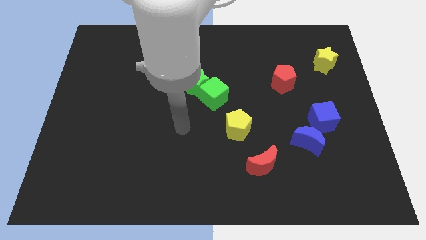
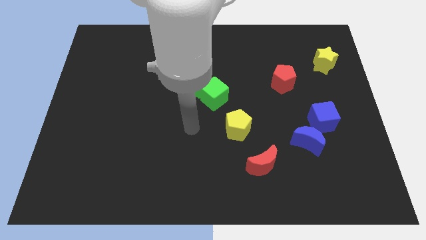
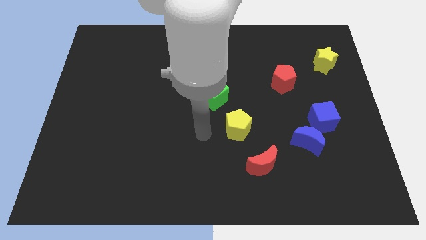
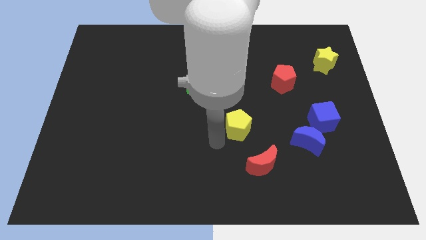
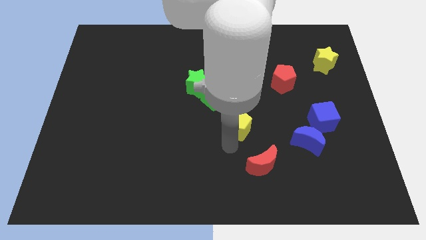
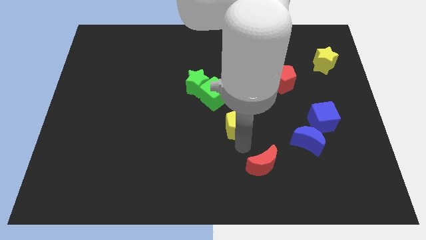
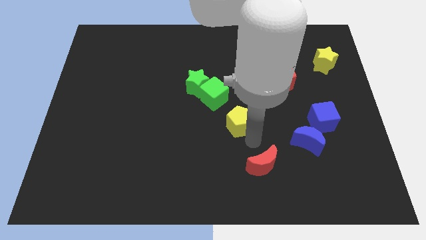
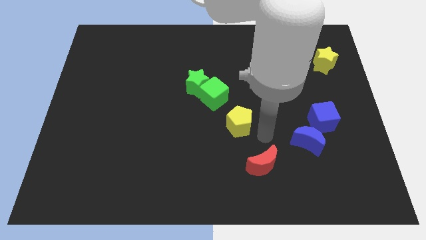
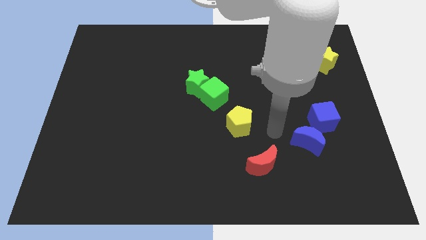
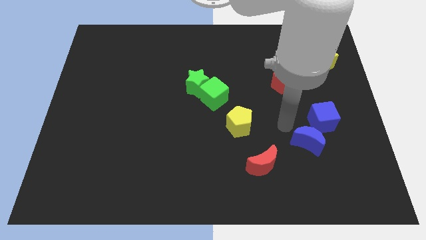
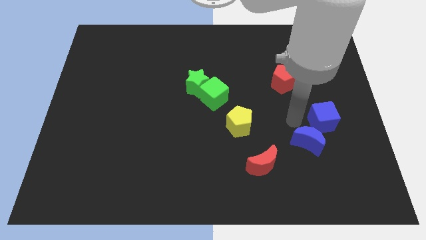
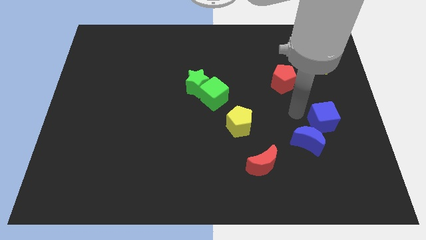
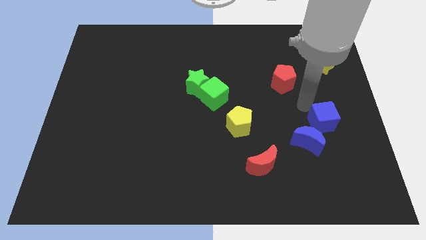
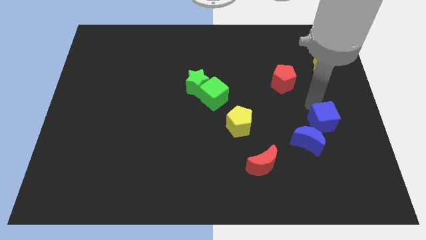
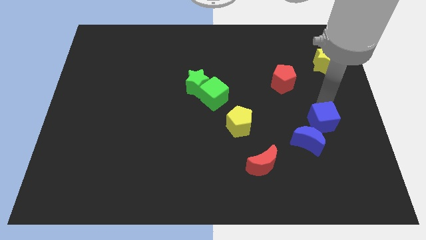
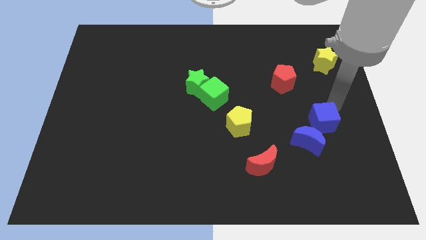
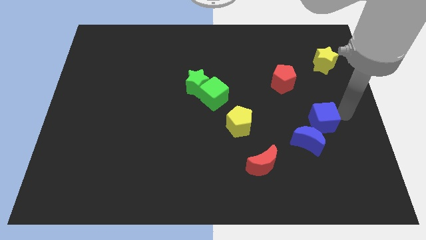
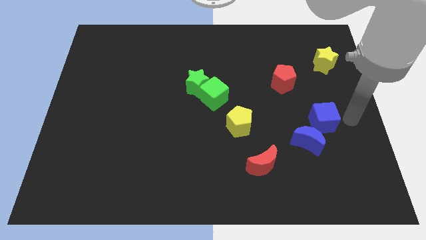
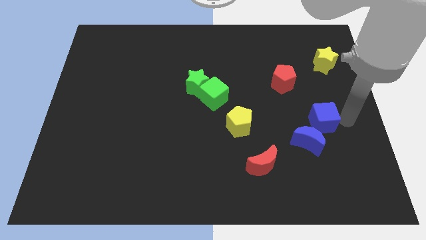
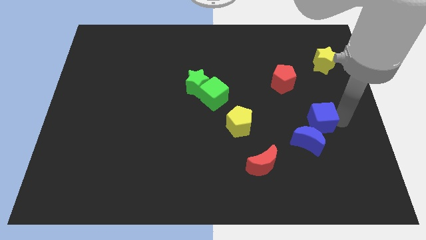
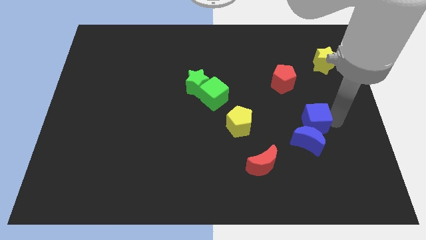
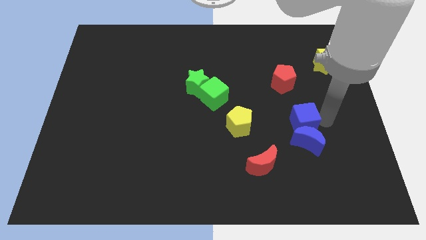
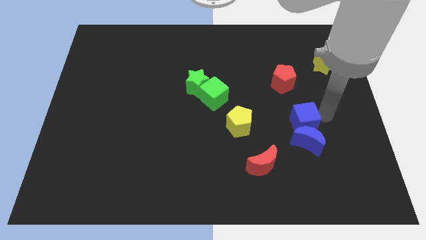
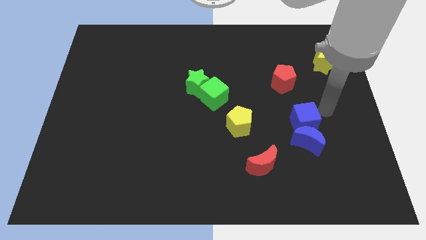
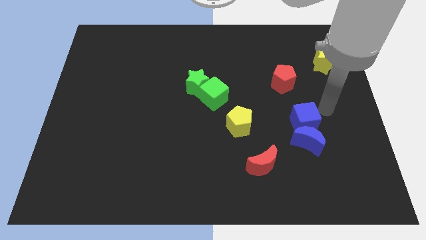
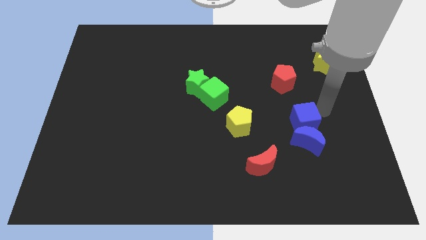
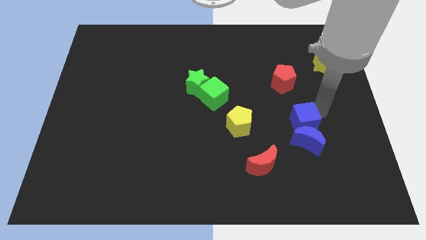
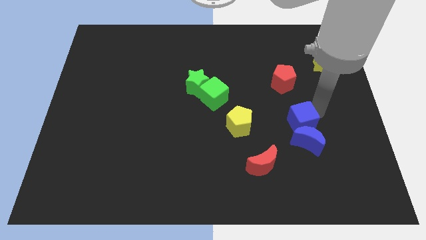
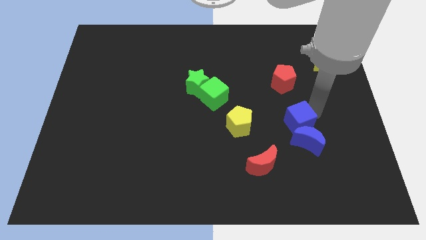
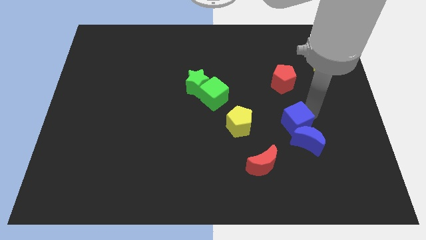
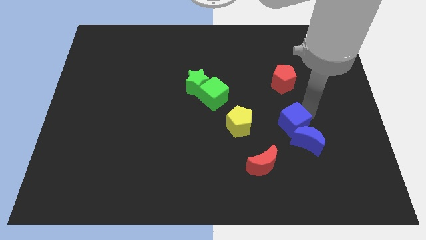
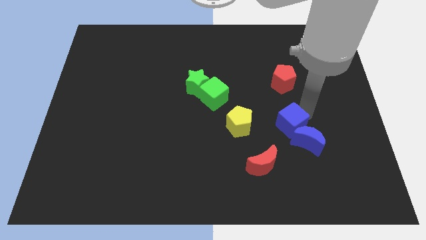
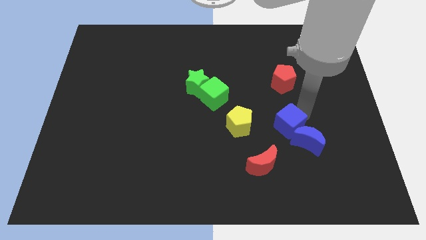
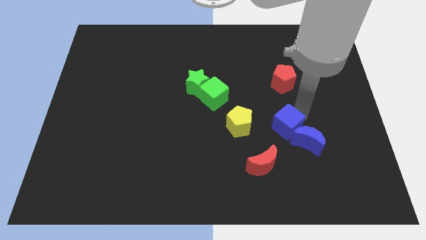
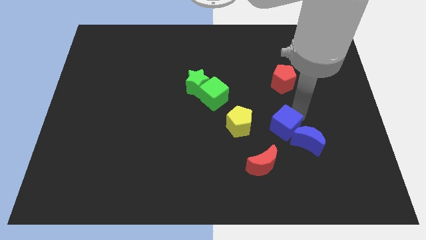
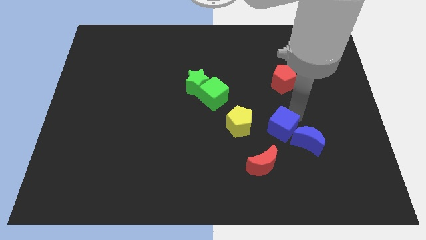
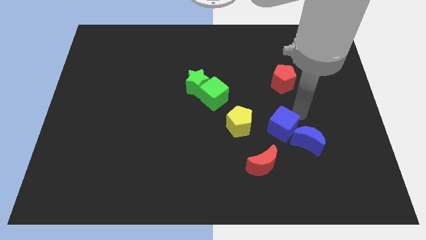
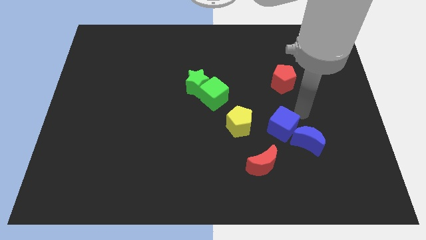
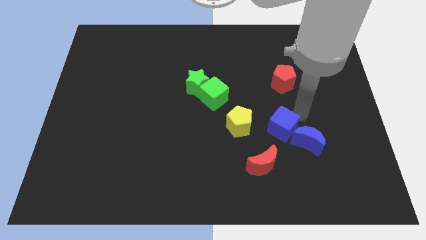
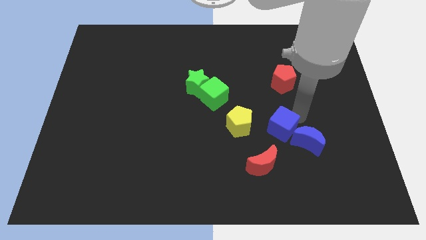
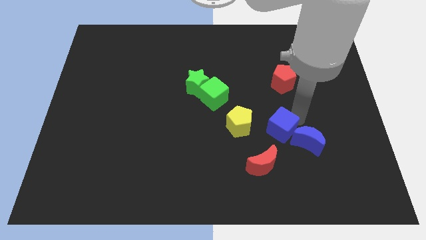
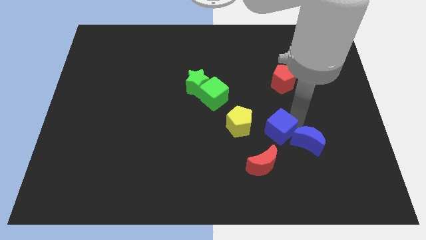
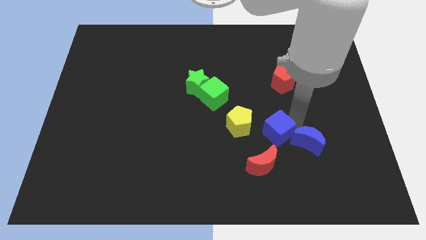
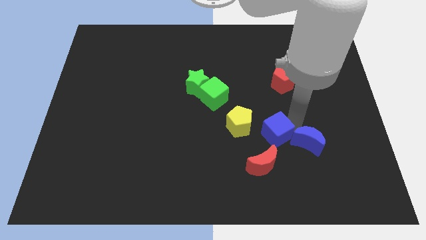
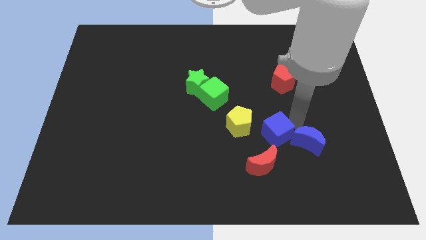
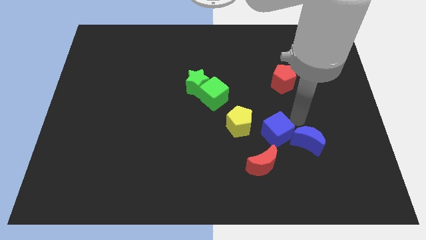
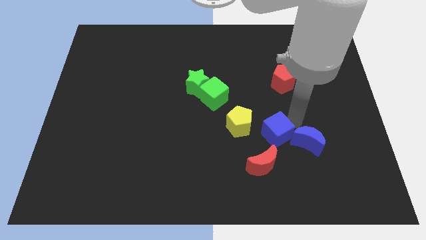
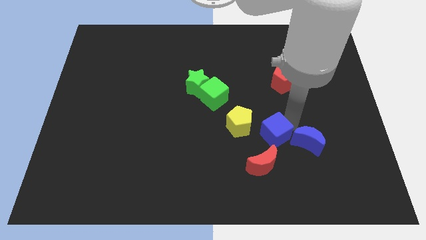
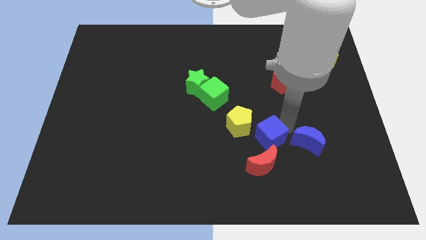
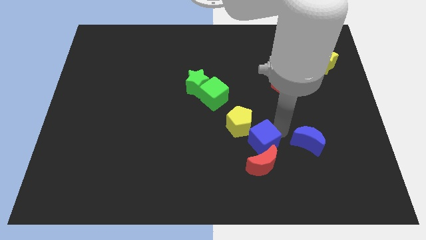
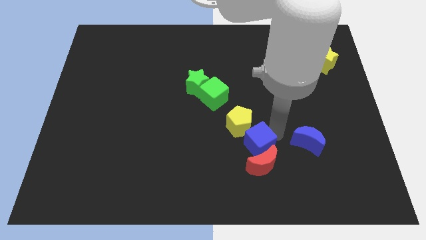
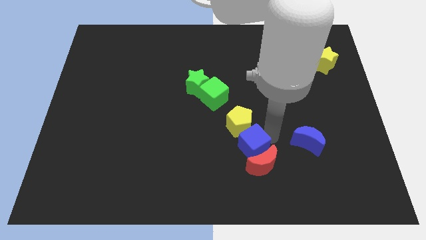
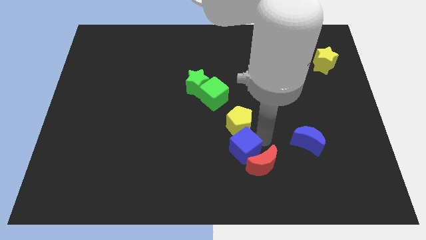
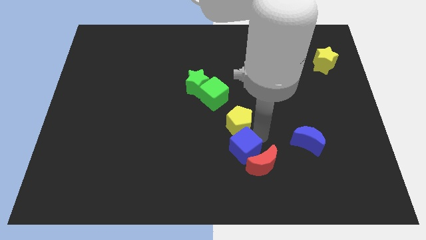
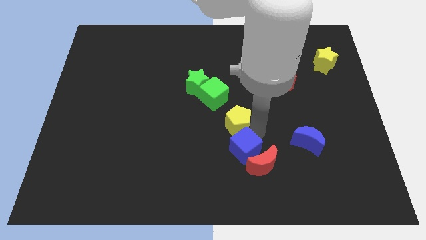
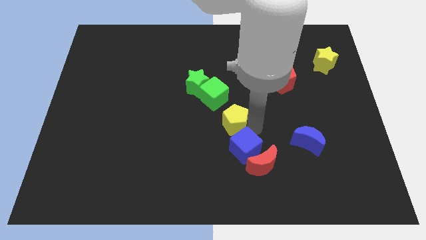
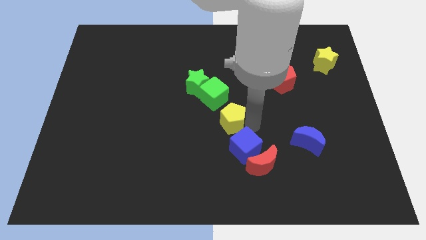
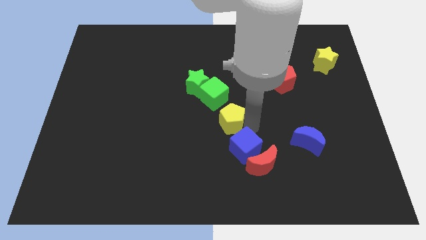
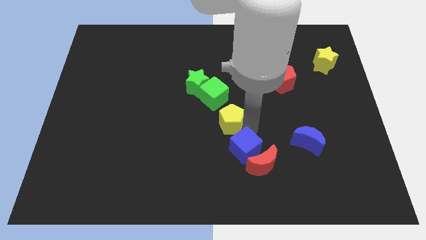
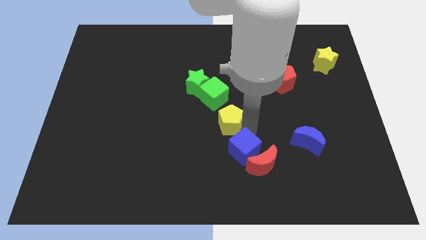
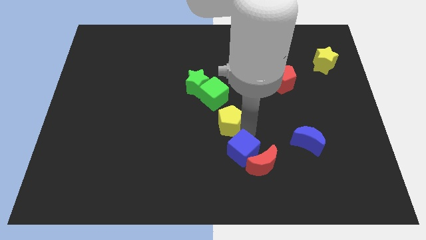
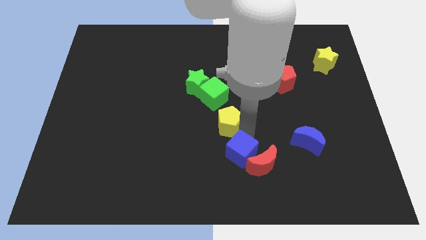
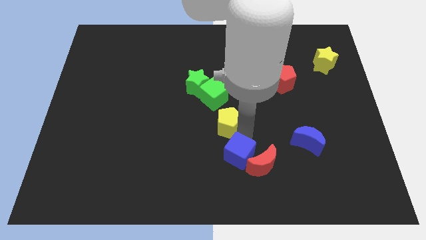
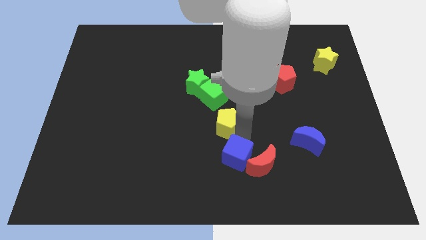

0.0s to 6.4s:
push the blue cube to the bottom side
